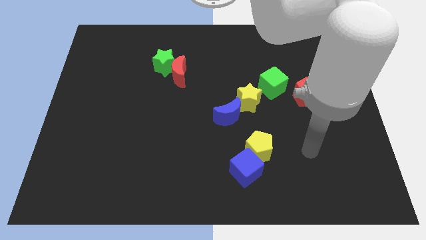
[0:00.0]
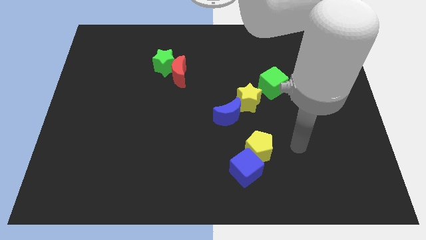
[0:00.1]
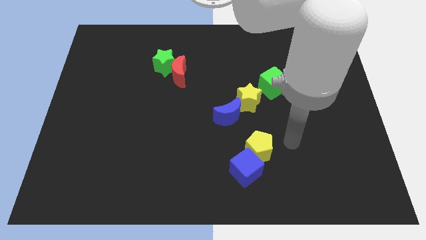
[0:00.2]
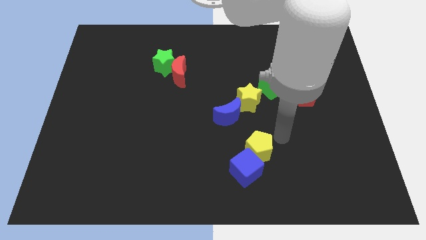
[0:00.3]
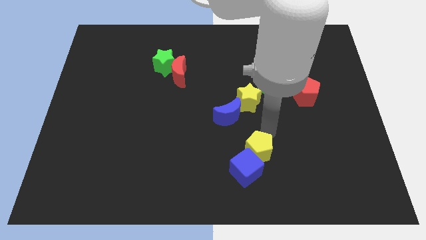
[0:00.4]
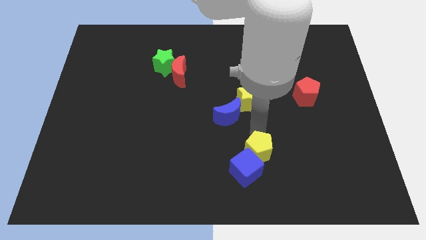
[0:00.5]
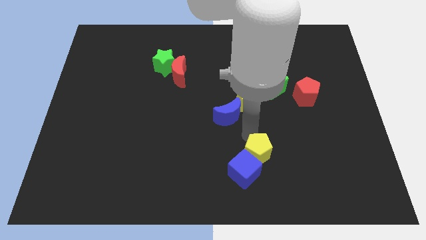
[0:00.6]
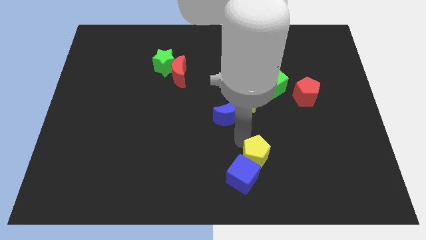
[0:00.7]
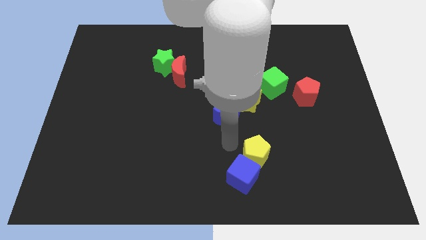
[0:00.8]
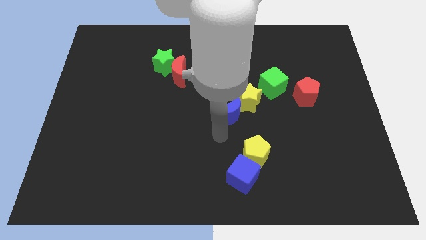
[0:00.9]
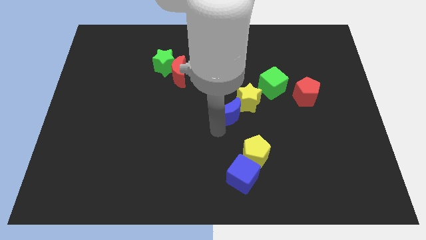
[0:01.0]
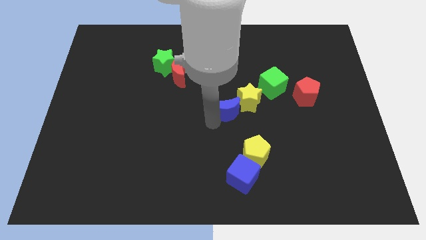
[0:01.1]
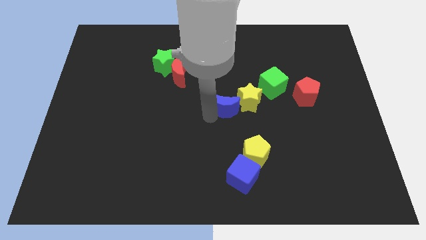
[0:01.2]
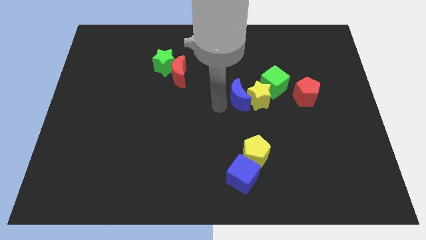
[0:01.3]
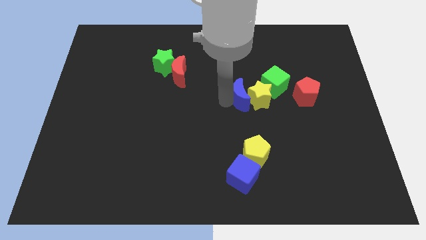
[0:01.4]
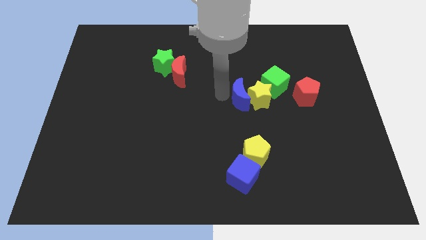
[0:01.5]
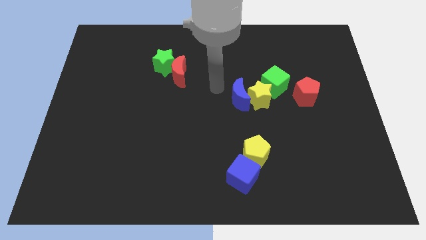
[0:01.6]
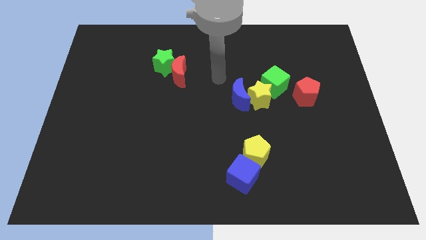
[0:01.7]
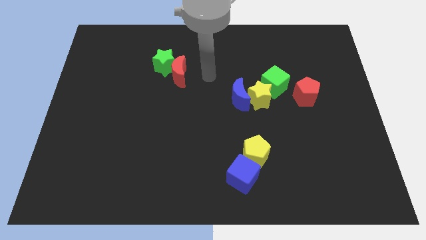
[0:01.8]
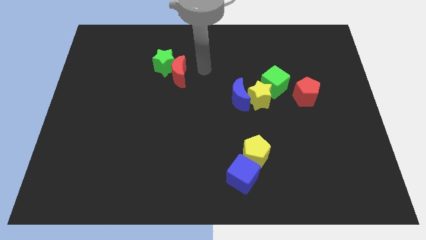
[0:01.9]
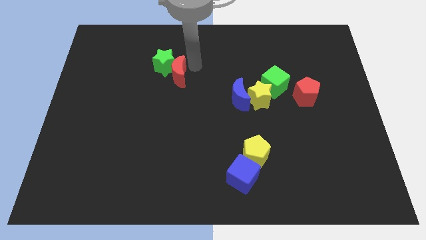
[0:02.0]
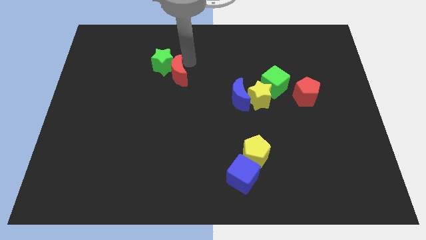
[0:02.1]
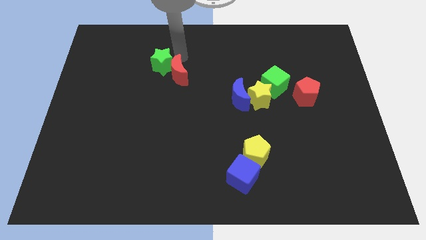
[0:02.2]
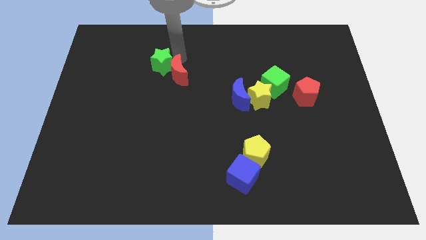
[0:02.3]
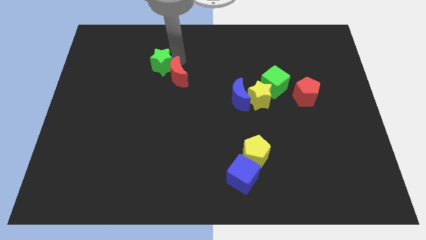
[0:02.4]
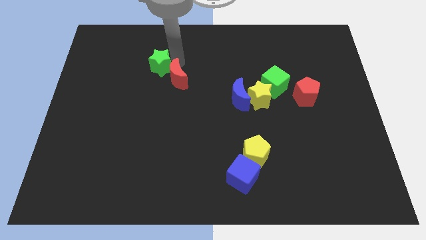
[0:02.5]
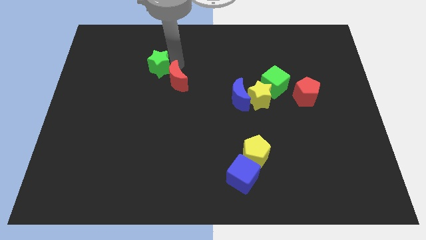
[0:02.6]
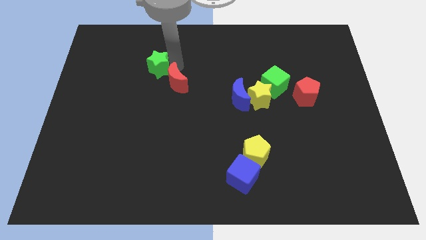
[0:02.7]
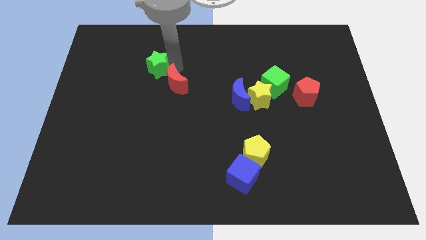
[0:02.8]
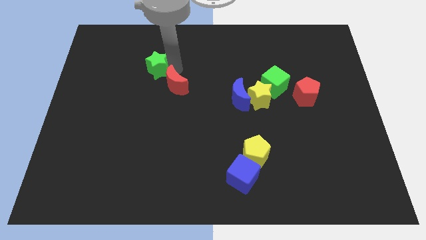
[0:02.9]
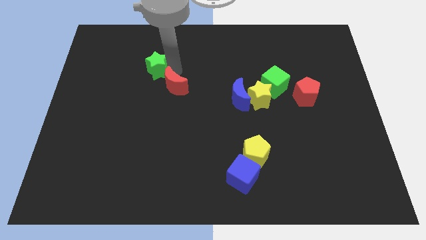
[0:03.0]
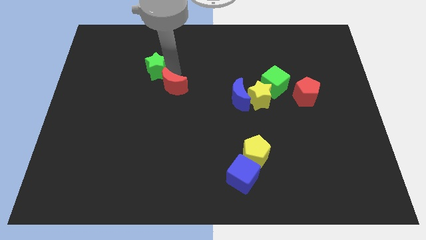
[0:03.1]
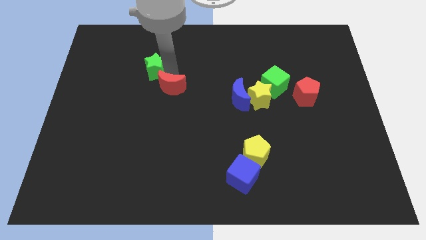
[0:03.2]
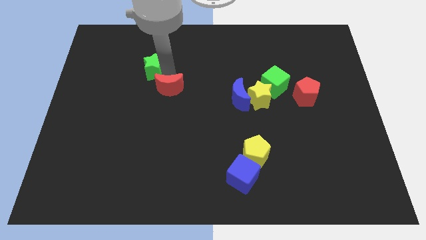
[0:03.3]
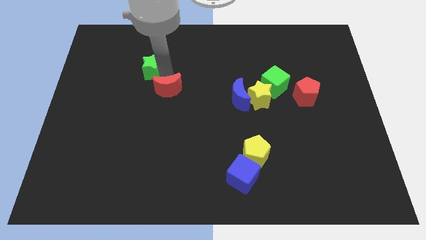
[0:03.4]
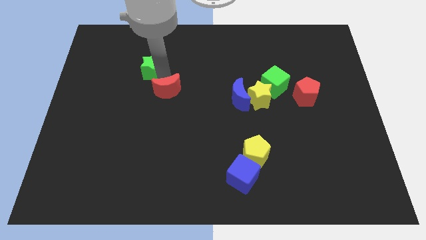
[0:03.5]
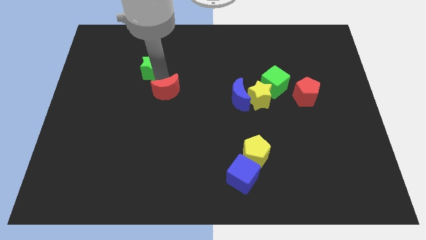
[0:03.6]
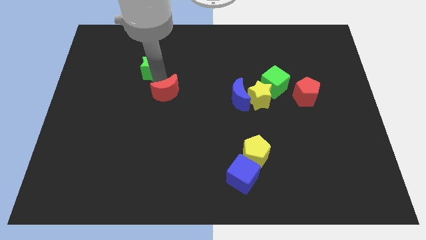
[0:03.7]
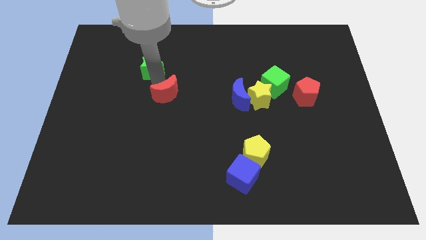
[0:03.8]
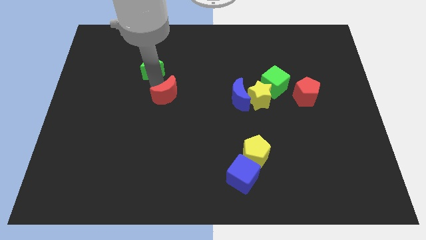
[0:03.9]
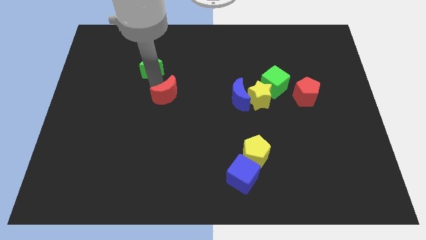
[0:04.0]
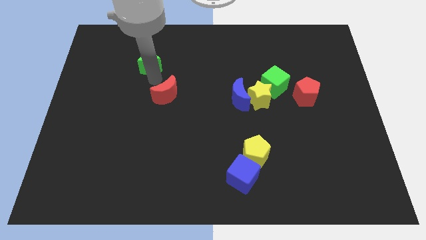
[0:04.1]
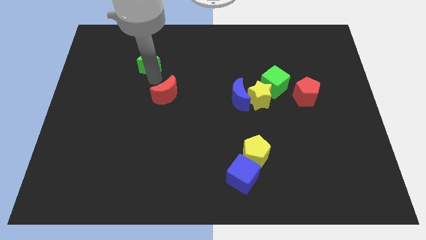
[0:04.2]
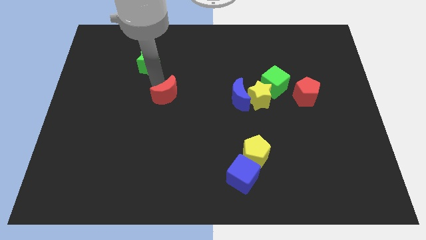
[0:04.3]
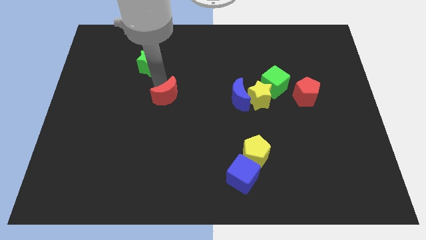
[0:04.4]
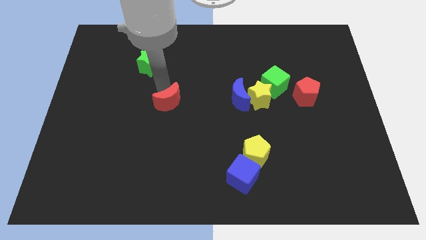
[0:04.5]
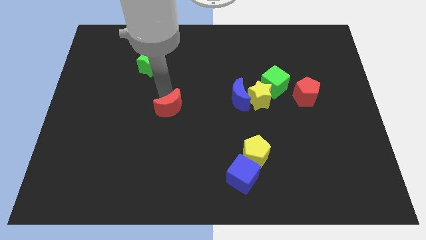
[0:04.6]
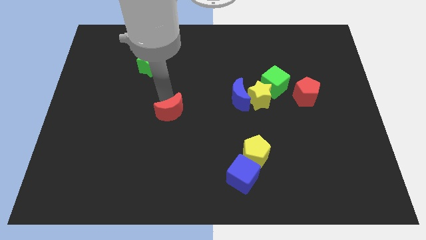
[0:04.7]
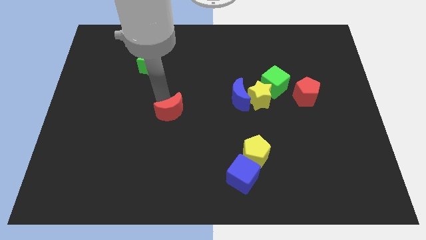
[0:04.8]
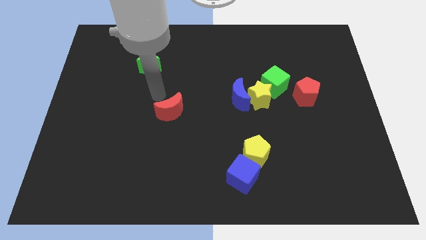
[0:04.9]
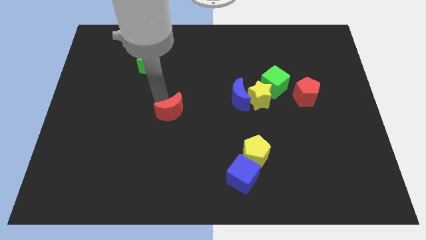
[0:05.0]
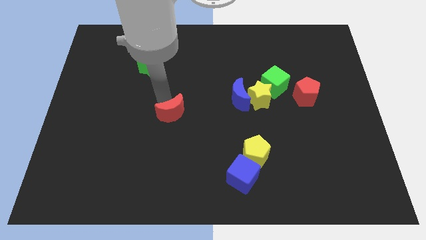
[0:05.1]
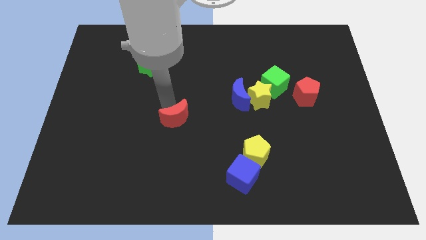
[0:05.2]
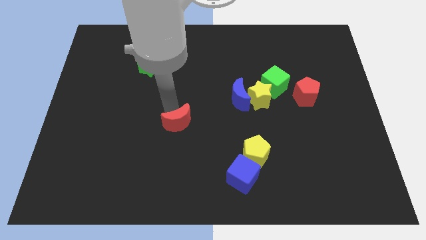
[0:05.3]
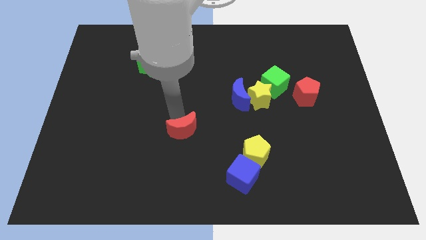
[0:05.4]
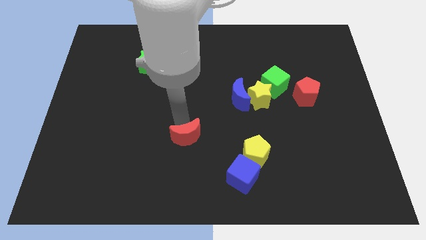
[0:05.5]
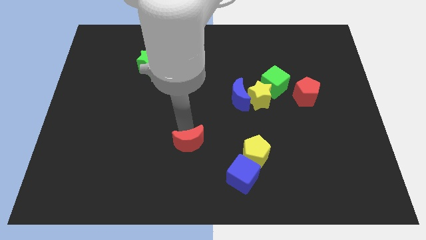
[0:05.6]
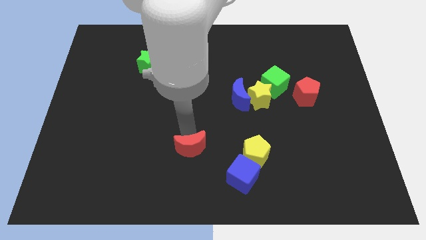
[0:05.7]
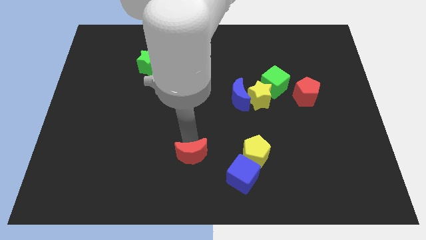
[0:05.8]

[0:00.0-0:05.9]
slide the red moon to the bottom

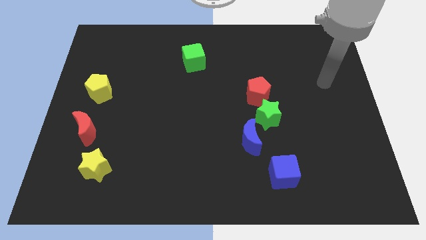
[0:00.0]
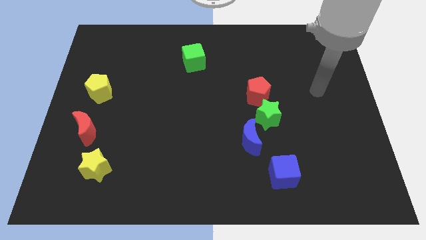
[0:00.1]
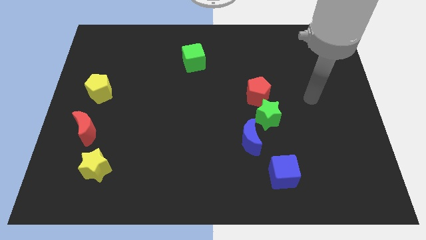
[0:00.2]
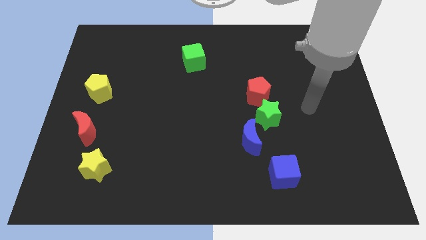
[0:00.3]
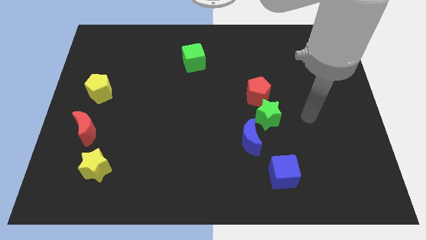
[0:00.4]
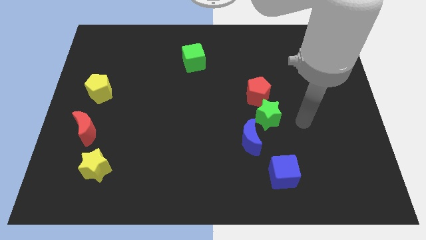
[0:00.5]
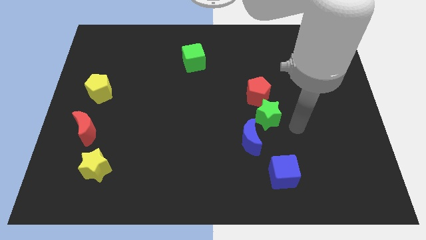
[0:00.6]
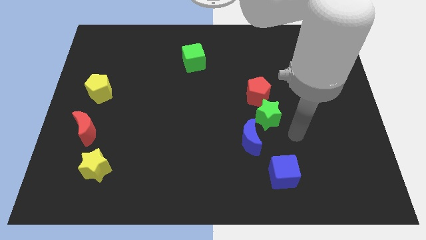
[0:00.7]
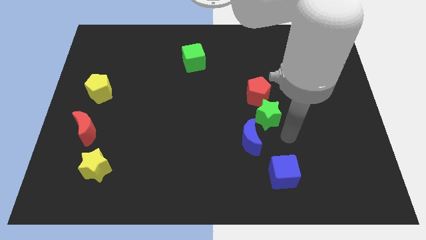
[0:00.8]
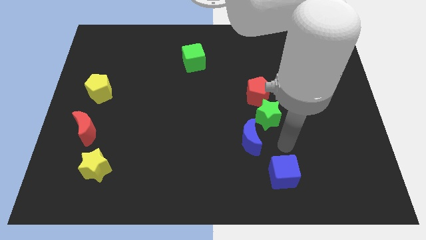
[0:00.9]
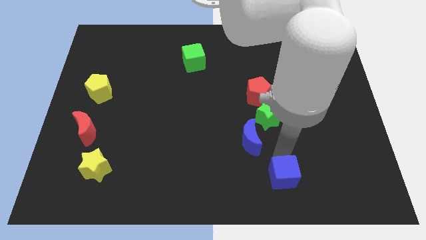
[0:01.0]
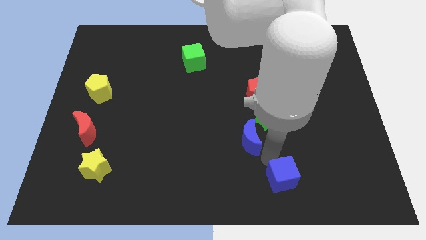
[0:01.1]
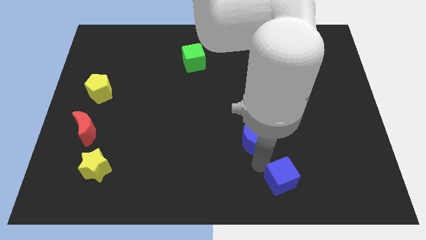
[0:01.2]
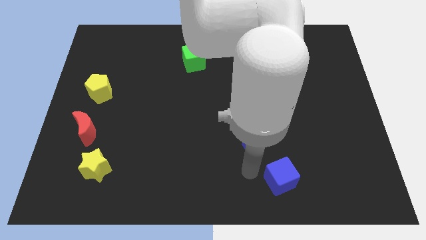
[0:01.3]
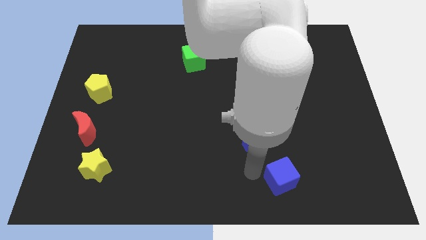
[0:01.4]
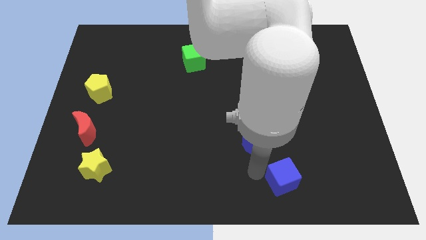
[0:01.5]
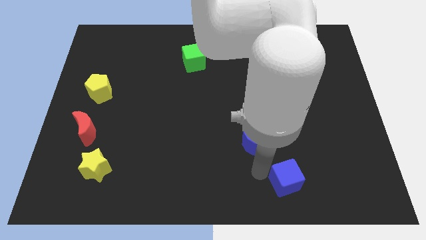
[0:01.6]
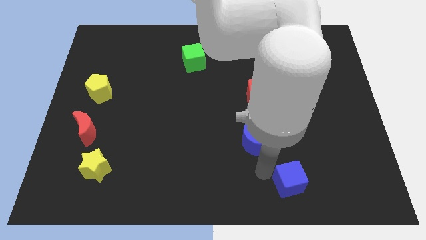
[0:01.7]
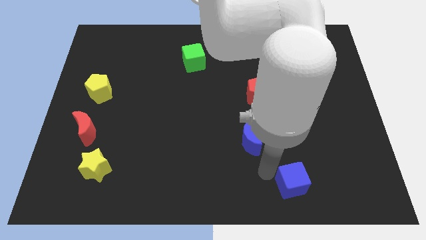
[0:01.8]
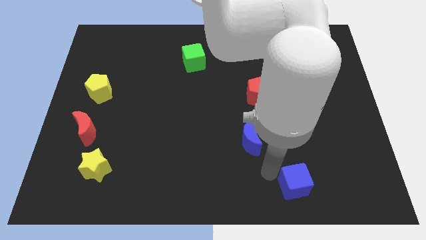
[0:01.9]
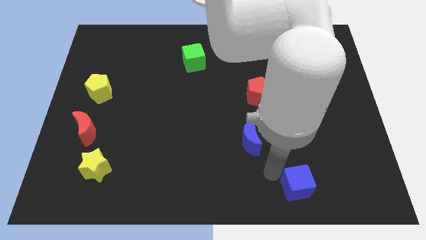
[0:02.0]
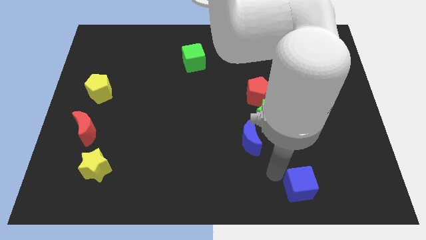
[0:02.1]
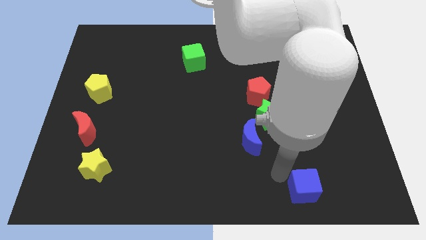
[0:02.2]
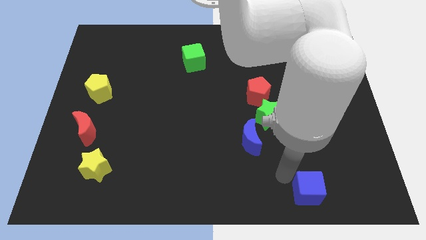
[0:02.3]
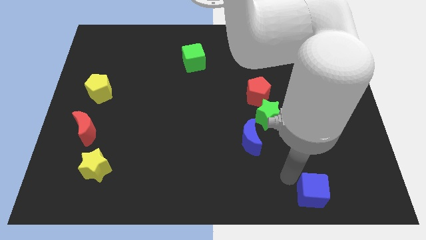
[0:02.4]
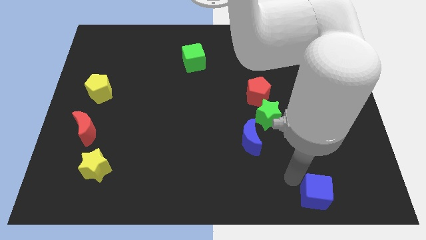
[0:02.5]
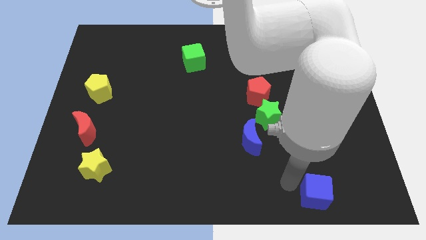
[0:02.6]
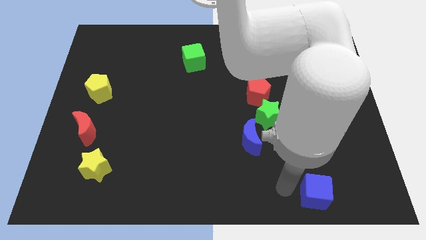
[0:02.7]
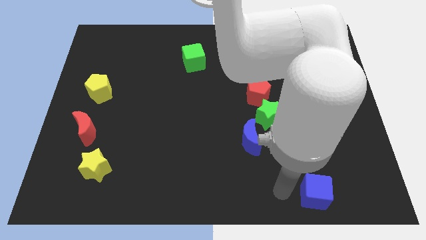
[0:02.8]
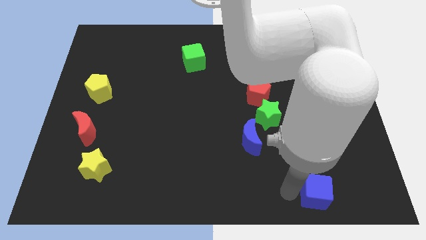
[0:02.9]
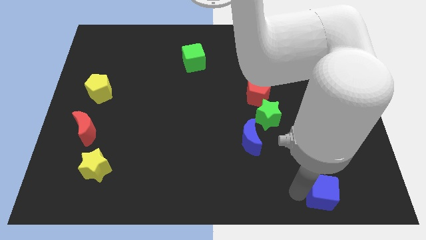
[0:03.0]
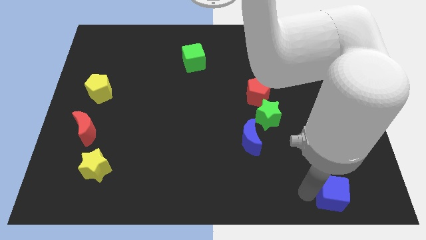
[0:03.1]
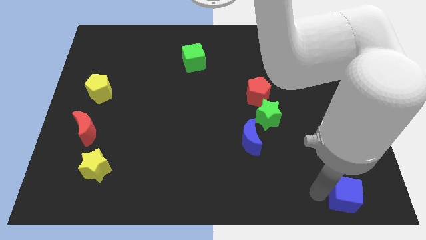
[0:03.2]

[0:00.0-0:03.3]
move the blue cube to the lower right corner
